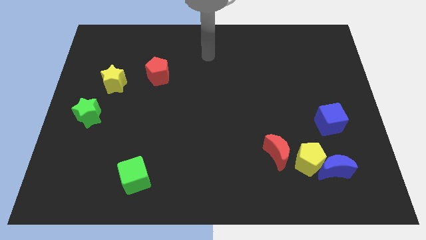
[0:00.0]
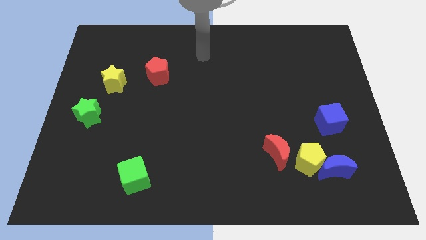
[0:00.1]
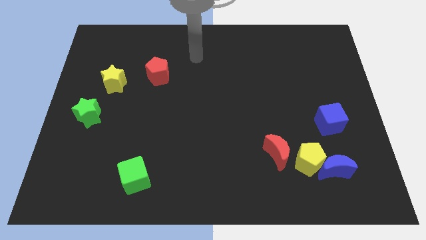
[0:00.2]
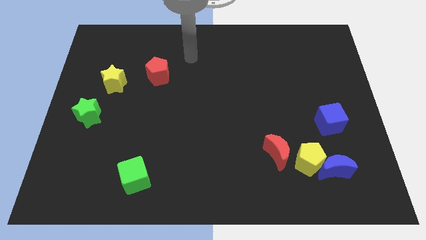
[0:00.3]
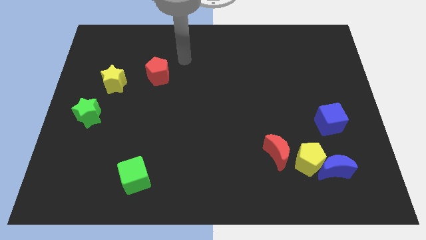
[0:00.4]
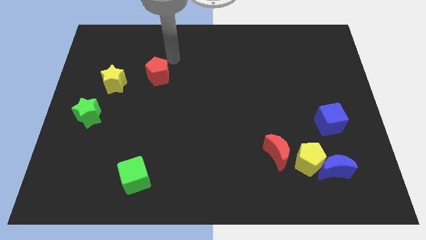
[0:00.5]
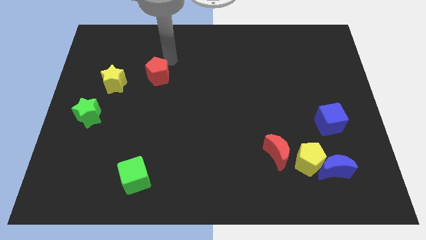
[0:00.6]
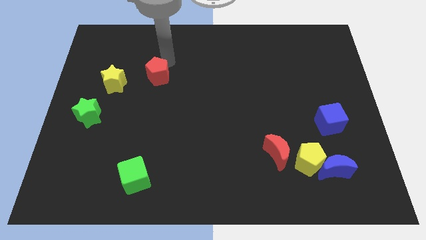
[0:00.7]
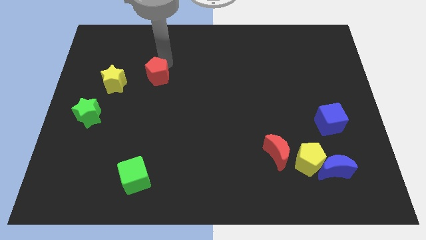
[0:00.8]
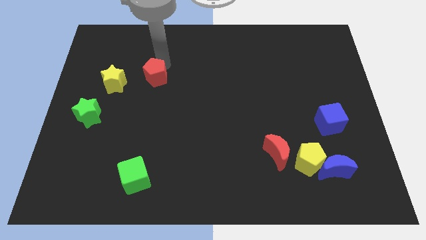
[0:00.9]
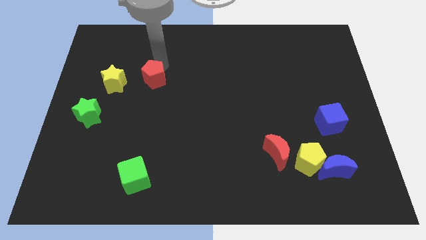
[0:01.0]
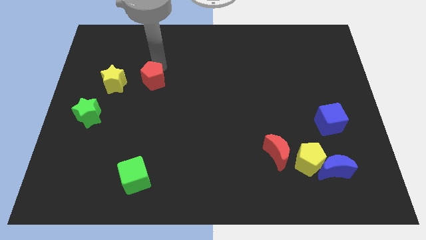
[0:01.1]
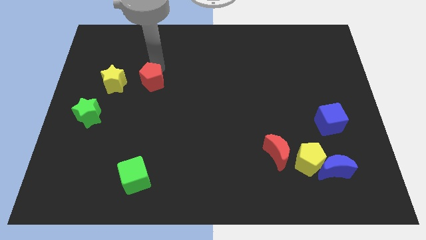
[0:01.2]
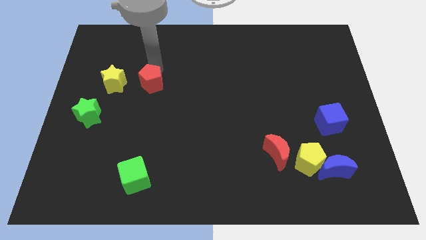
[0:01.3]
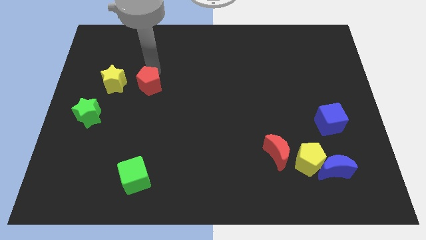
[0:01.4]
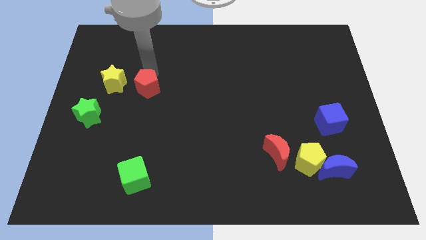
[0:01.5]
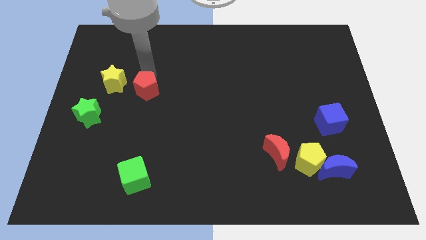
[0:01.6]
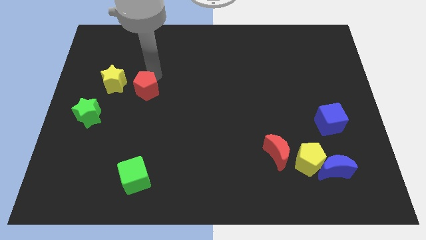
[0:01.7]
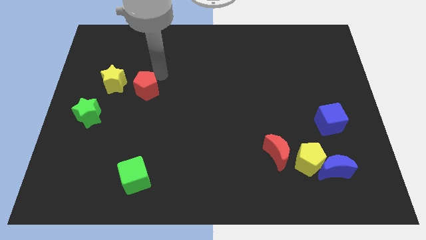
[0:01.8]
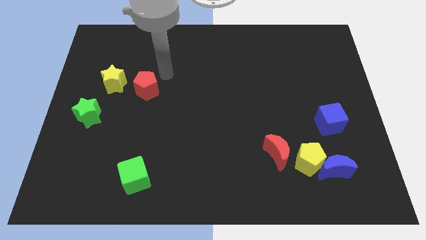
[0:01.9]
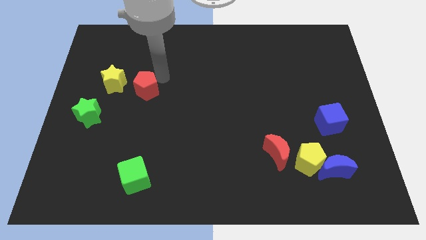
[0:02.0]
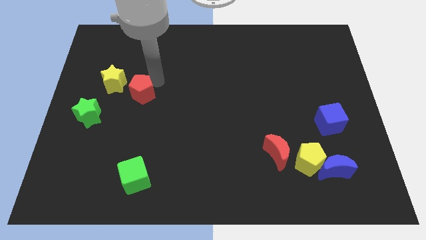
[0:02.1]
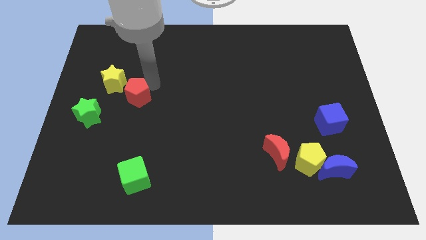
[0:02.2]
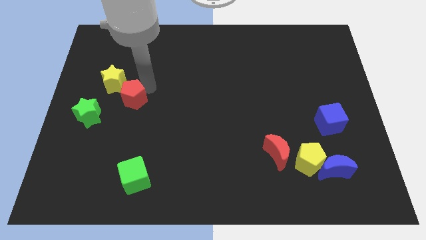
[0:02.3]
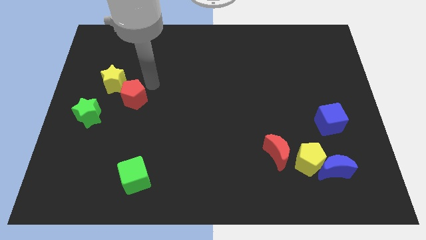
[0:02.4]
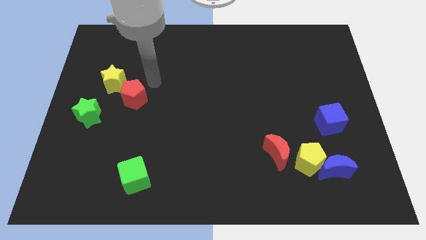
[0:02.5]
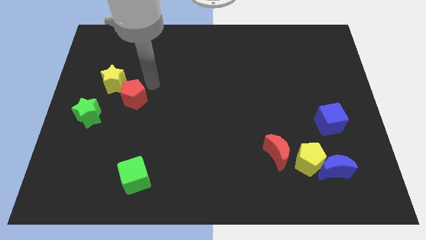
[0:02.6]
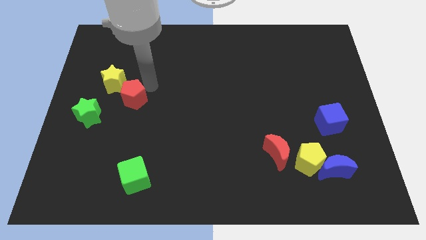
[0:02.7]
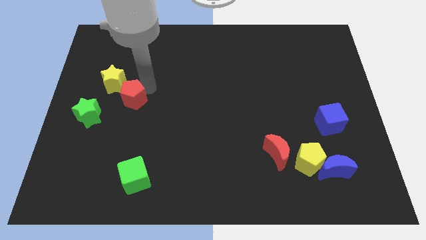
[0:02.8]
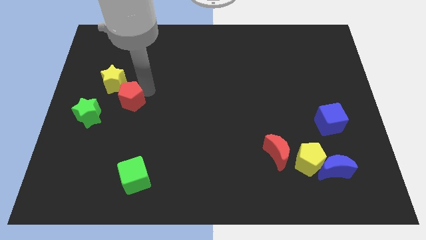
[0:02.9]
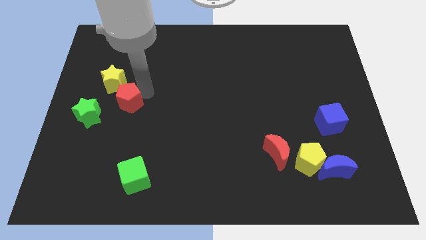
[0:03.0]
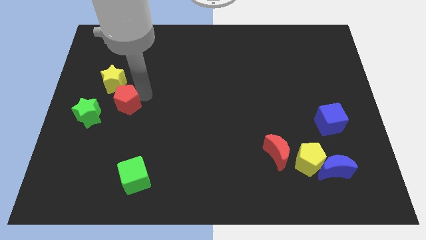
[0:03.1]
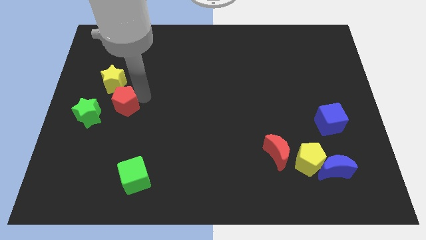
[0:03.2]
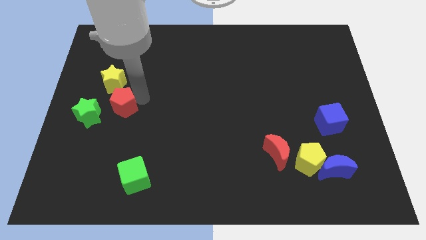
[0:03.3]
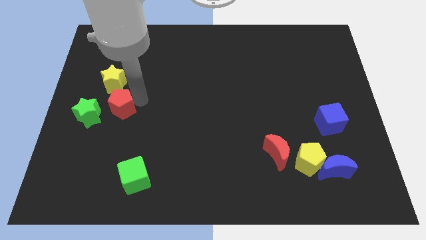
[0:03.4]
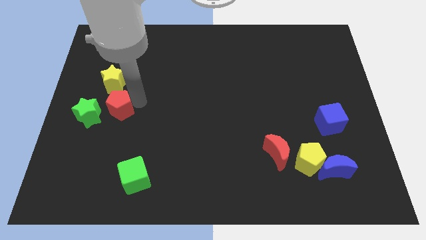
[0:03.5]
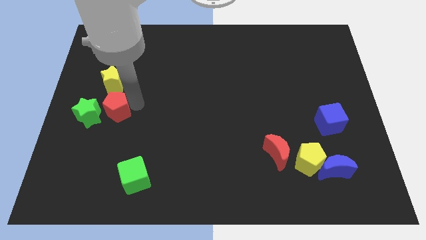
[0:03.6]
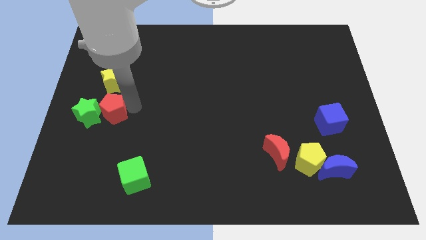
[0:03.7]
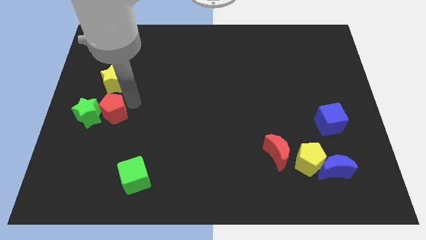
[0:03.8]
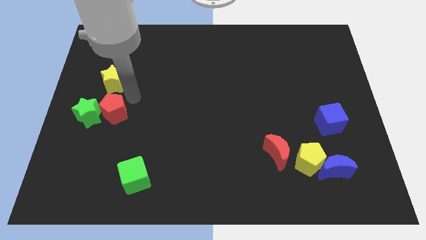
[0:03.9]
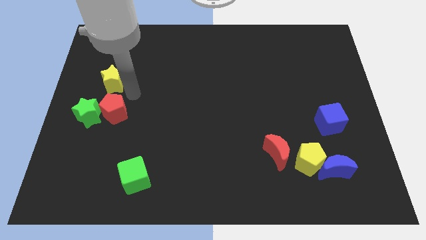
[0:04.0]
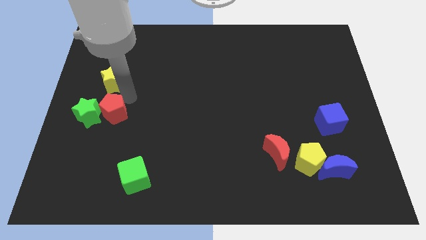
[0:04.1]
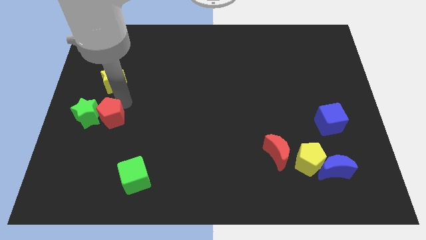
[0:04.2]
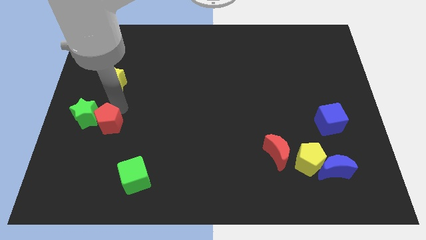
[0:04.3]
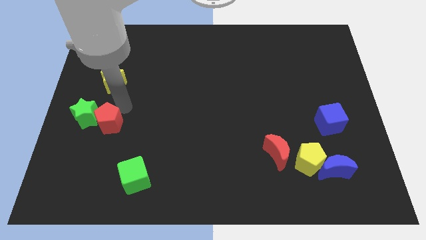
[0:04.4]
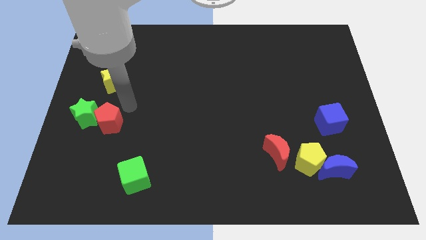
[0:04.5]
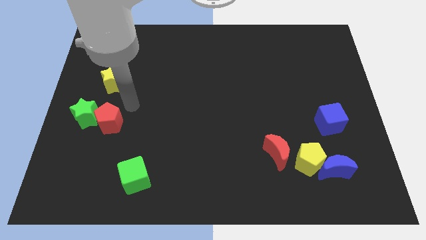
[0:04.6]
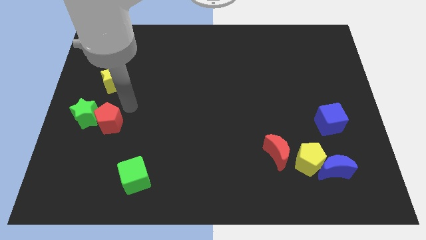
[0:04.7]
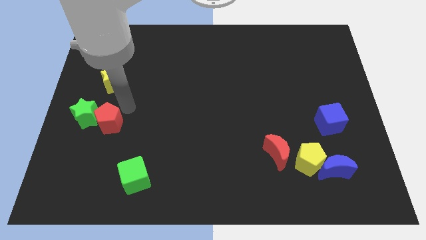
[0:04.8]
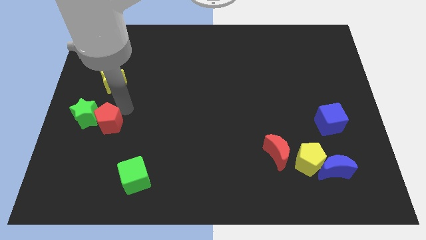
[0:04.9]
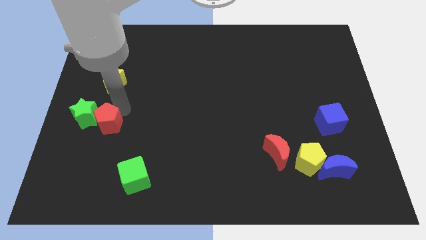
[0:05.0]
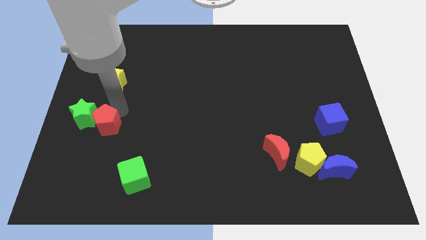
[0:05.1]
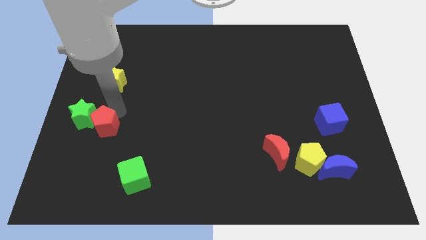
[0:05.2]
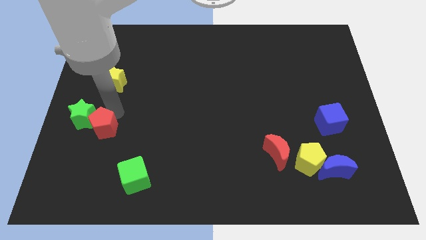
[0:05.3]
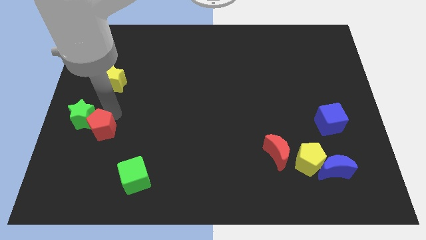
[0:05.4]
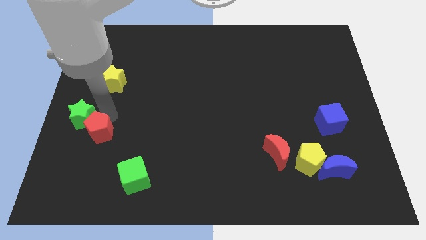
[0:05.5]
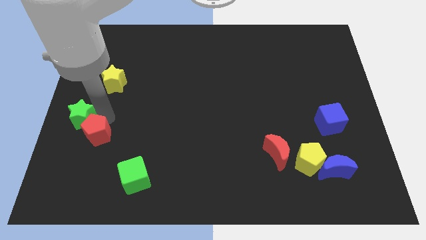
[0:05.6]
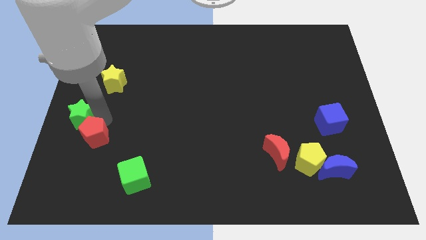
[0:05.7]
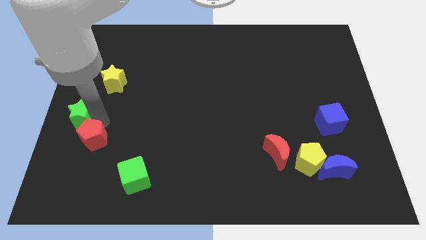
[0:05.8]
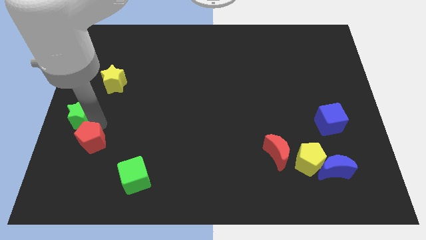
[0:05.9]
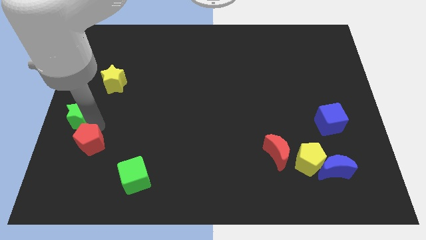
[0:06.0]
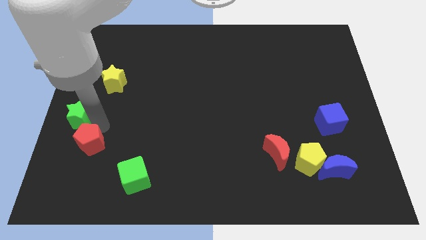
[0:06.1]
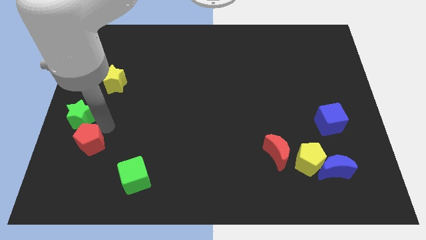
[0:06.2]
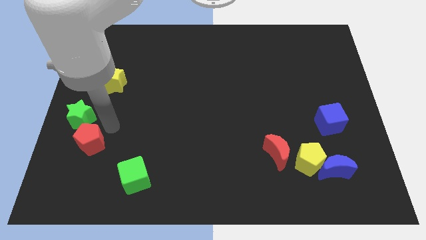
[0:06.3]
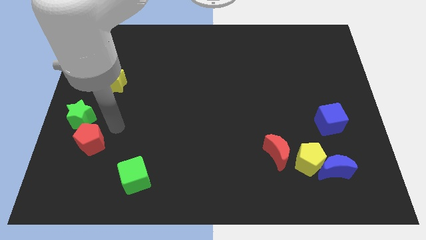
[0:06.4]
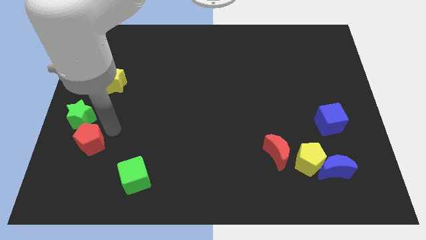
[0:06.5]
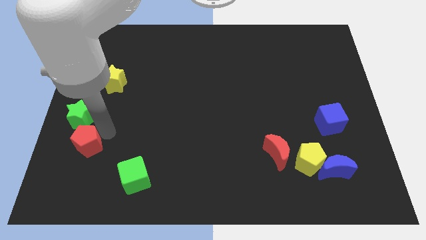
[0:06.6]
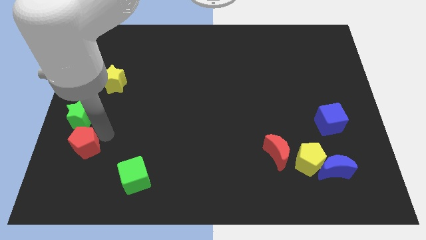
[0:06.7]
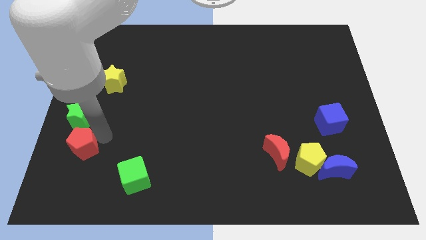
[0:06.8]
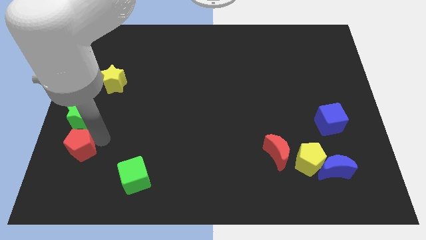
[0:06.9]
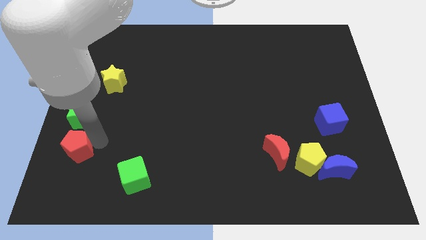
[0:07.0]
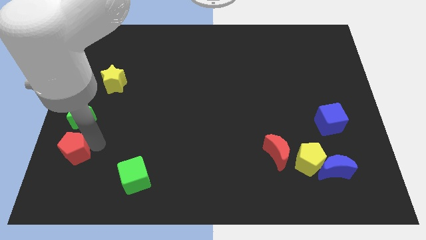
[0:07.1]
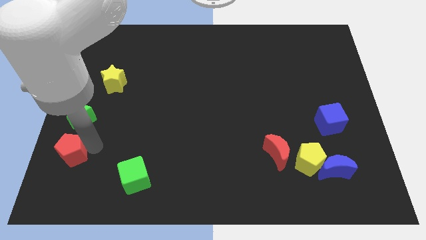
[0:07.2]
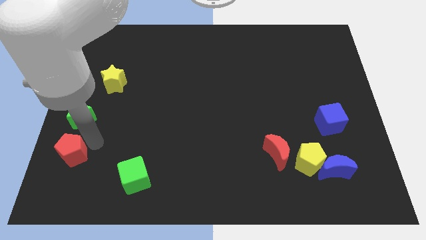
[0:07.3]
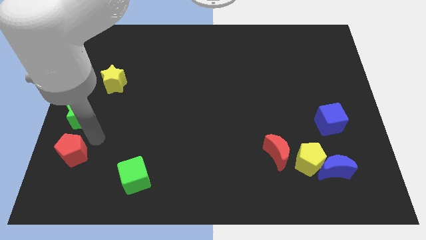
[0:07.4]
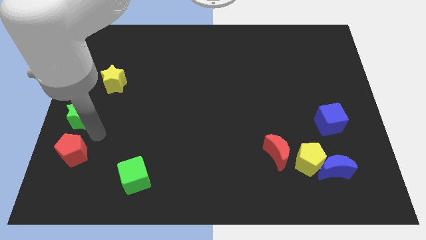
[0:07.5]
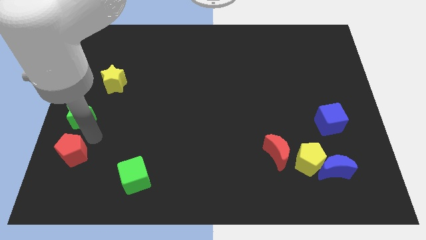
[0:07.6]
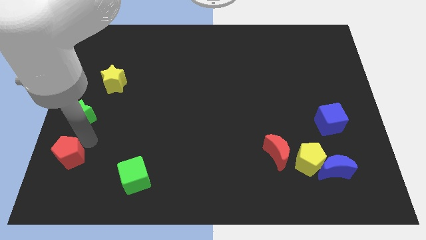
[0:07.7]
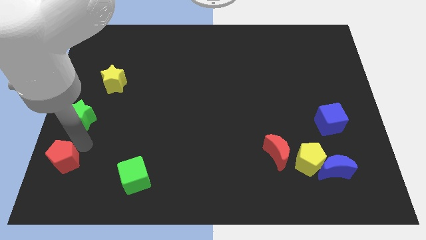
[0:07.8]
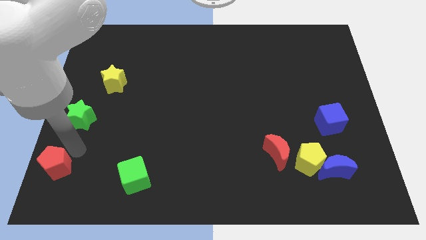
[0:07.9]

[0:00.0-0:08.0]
move the red pentagon to the bottom left of the board

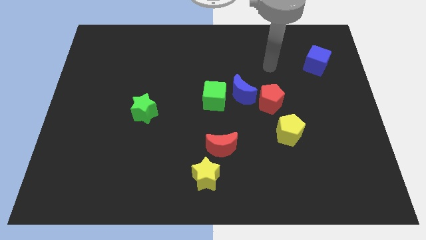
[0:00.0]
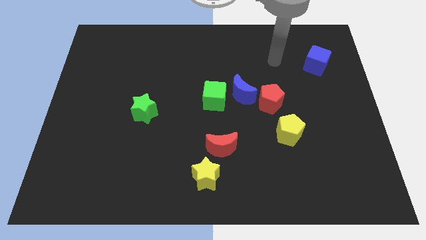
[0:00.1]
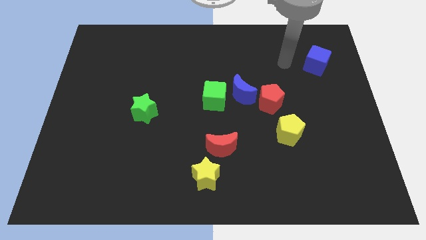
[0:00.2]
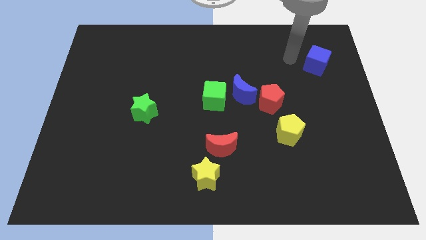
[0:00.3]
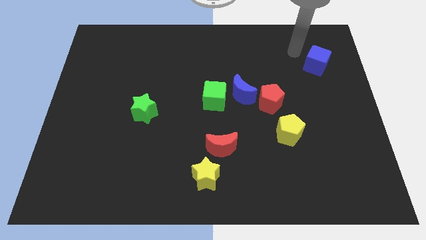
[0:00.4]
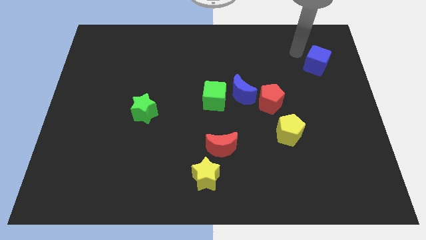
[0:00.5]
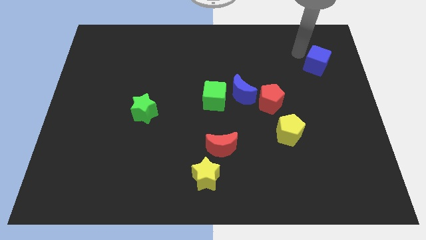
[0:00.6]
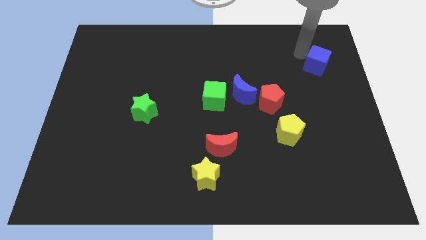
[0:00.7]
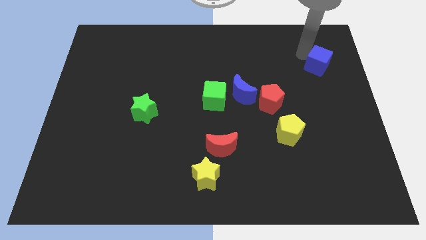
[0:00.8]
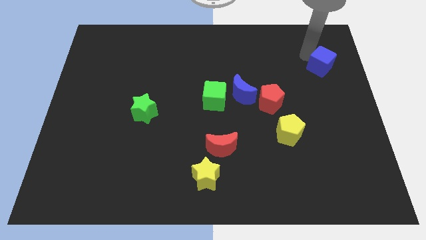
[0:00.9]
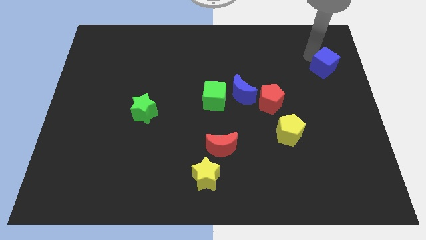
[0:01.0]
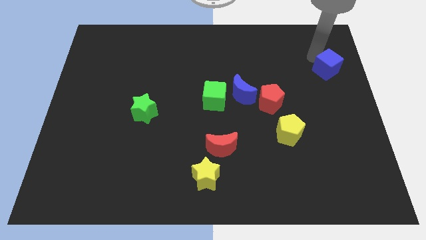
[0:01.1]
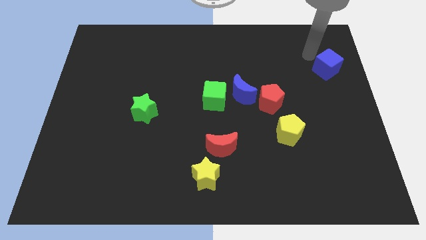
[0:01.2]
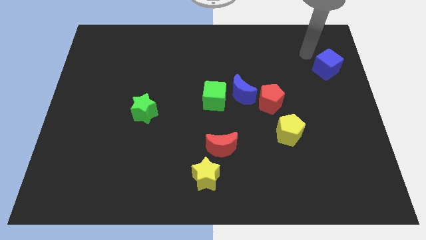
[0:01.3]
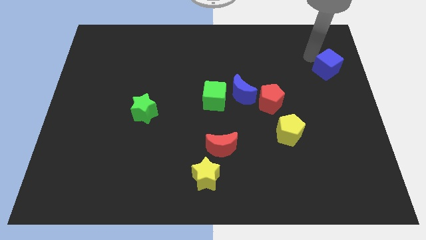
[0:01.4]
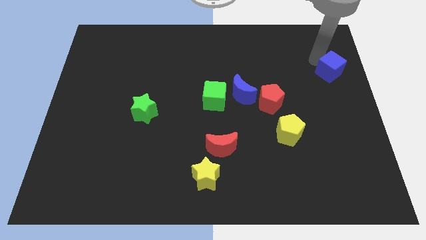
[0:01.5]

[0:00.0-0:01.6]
push the blue cube to the center right
